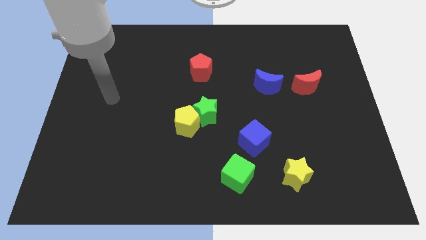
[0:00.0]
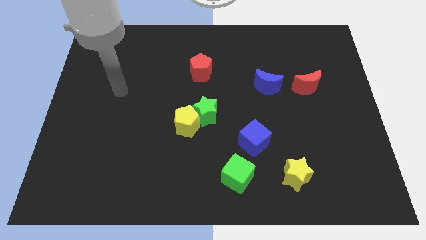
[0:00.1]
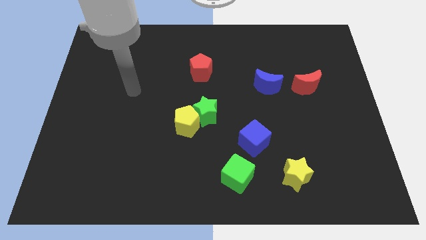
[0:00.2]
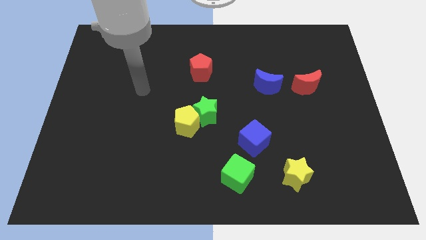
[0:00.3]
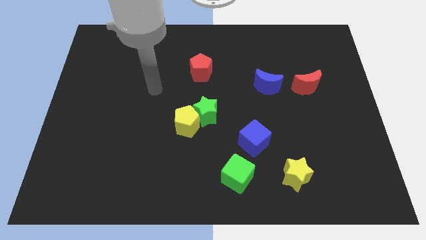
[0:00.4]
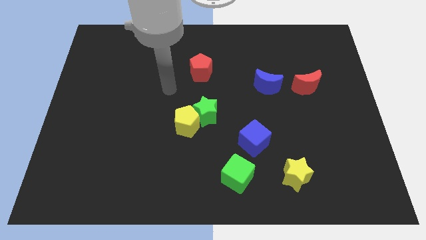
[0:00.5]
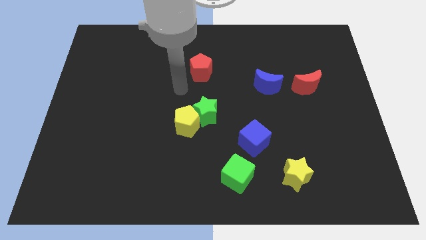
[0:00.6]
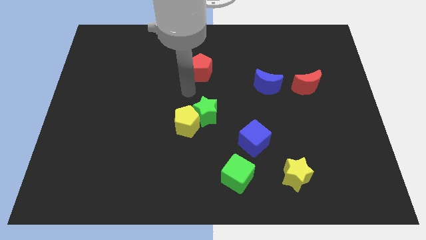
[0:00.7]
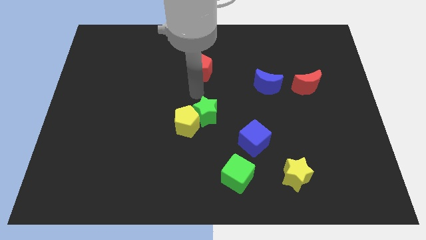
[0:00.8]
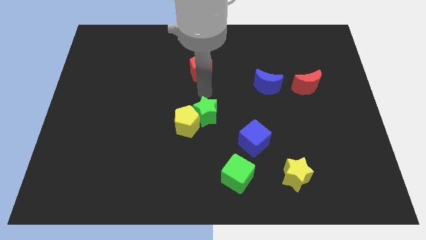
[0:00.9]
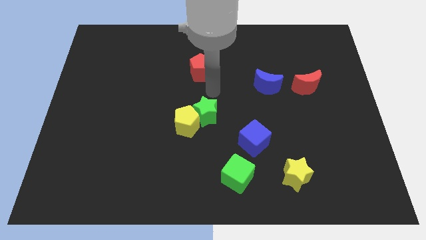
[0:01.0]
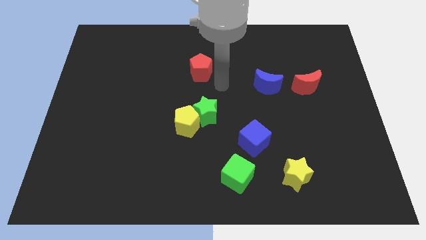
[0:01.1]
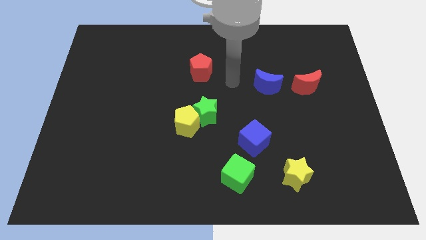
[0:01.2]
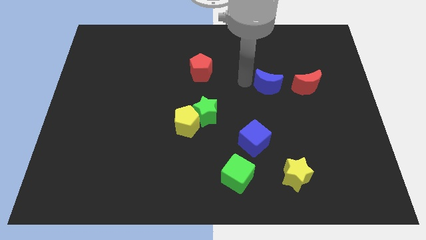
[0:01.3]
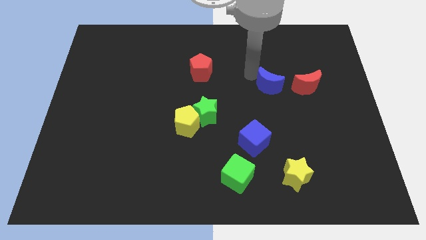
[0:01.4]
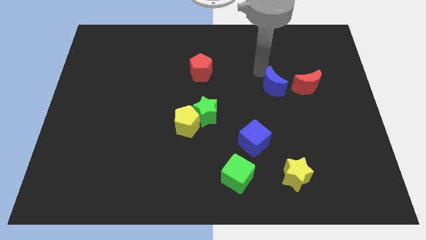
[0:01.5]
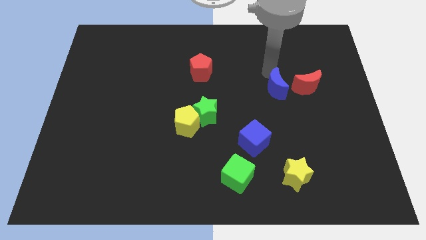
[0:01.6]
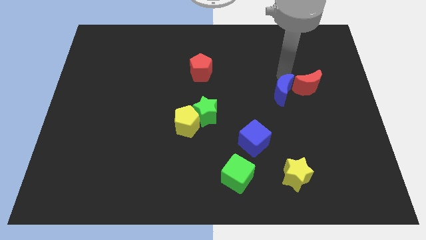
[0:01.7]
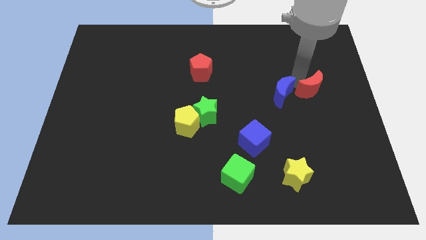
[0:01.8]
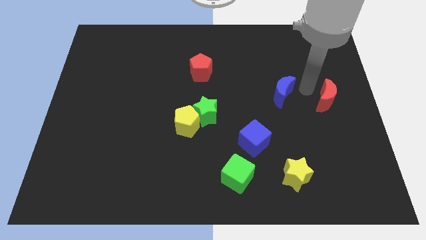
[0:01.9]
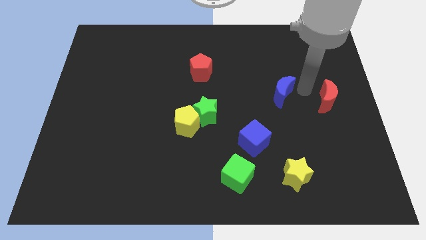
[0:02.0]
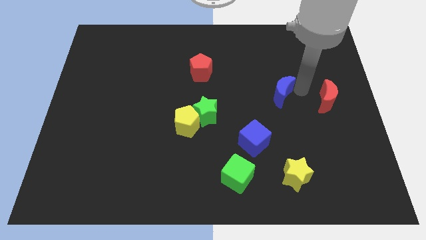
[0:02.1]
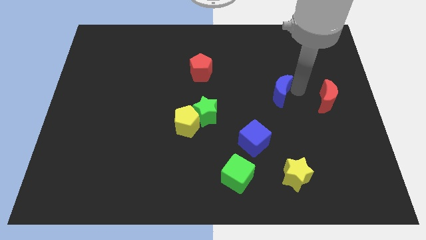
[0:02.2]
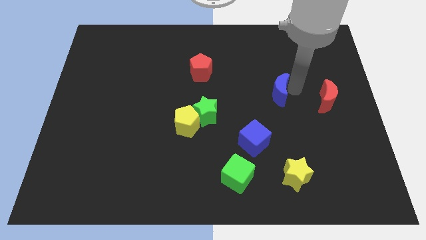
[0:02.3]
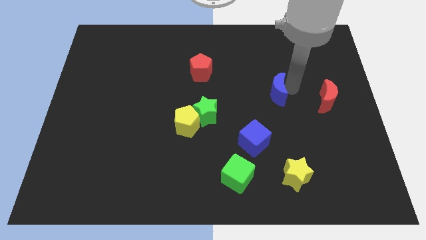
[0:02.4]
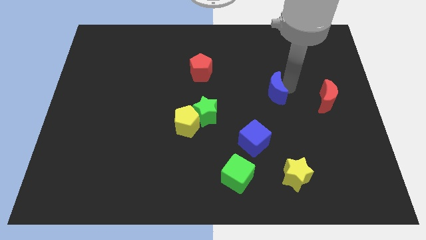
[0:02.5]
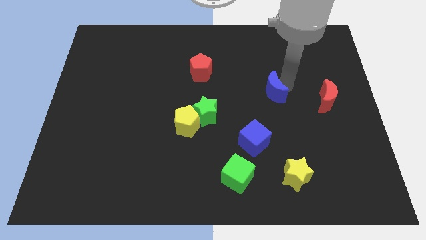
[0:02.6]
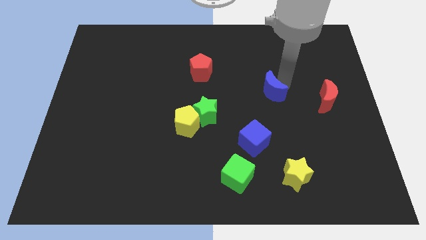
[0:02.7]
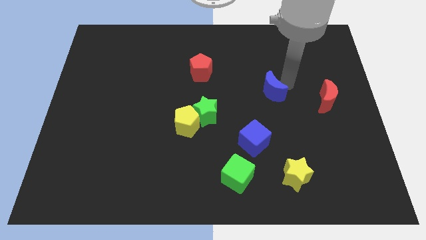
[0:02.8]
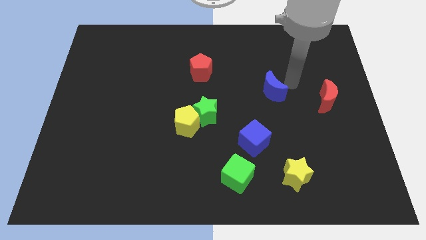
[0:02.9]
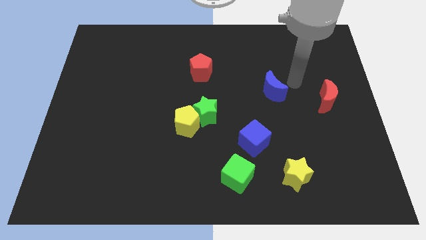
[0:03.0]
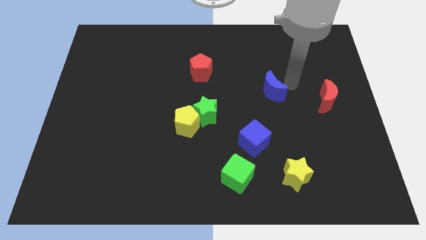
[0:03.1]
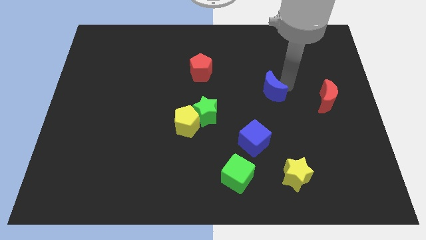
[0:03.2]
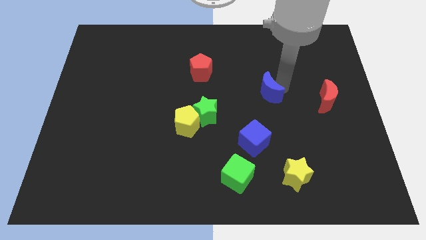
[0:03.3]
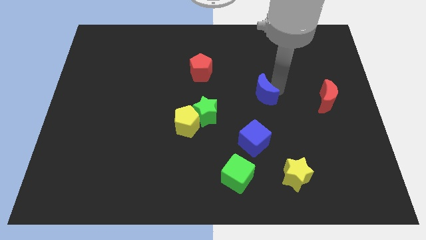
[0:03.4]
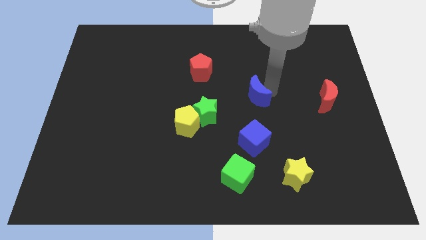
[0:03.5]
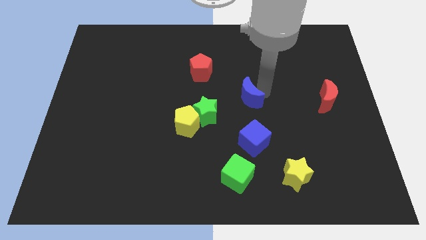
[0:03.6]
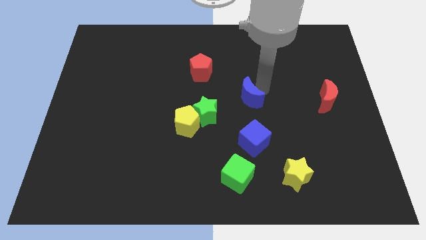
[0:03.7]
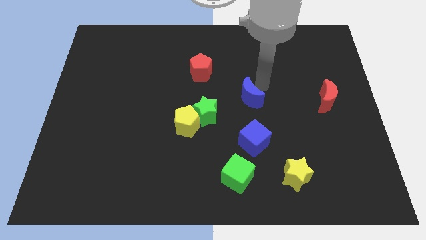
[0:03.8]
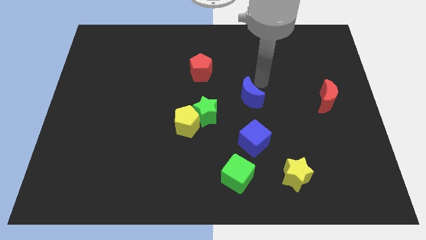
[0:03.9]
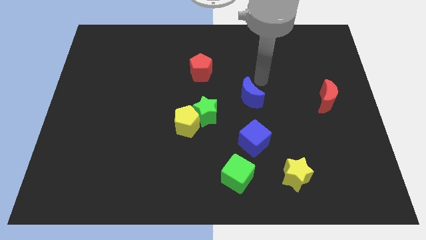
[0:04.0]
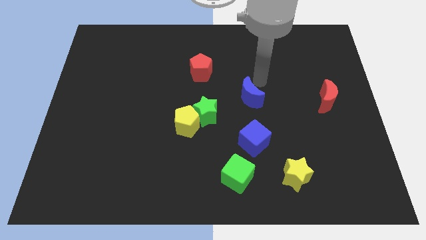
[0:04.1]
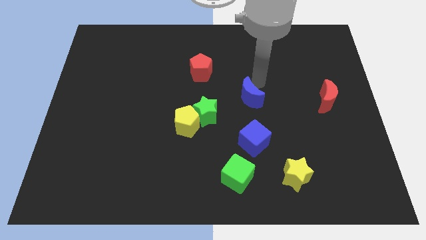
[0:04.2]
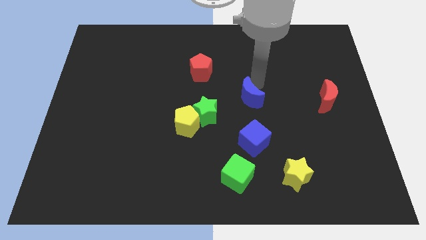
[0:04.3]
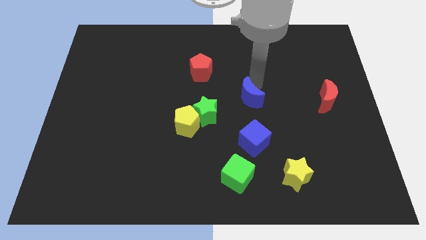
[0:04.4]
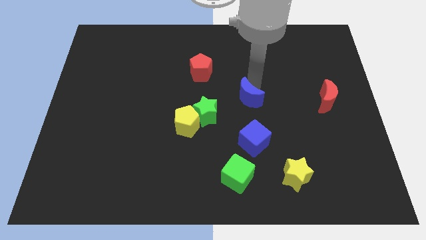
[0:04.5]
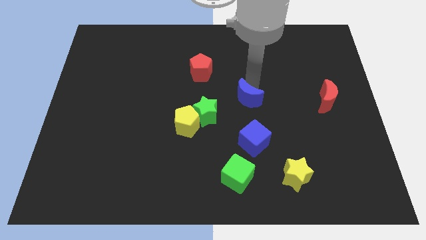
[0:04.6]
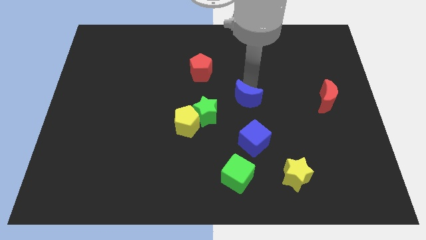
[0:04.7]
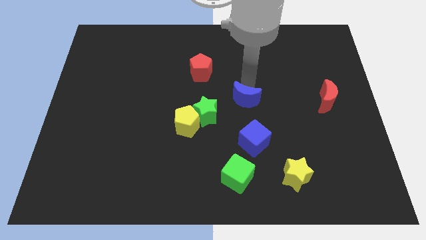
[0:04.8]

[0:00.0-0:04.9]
push the blue moon diagonally downwards and left a bit

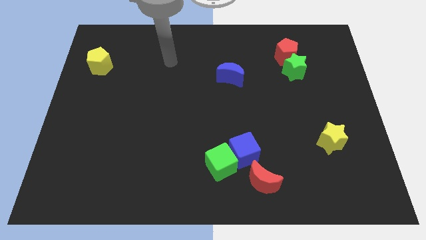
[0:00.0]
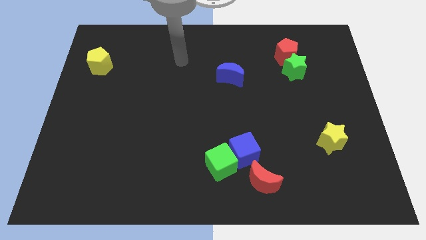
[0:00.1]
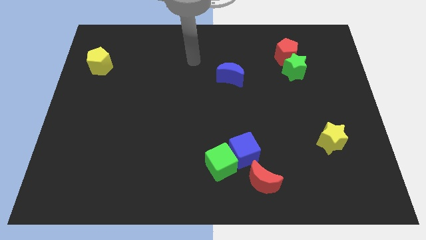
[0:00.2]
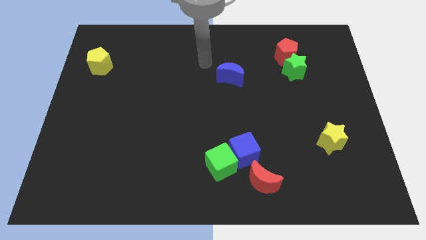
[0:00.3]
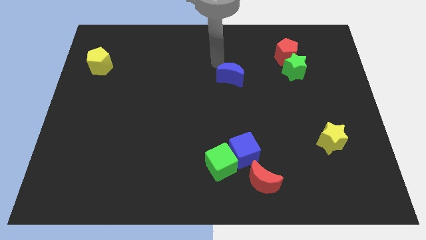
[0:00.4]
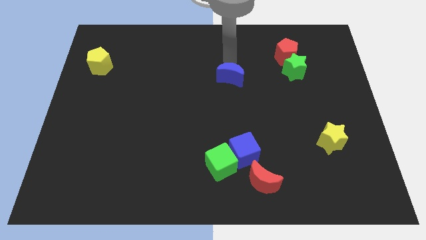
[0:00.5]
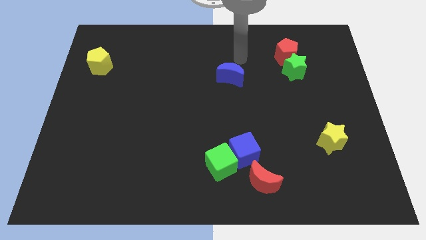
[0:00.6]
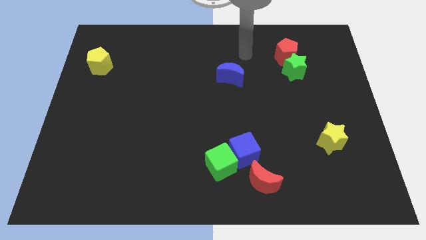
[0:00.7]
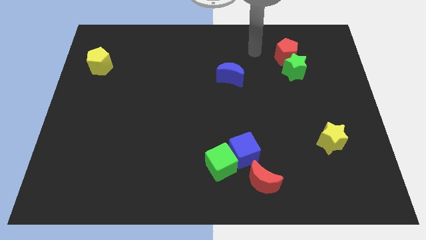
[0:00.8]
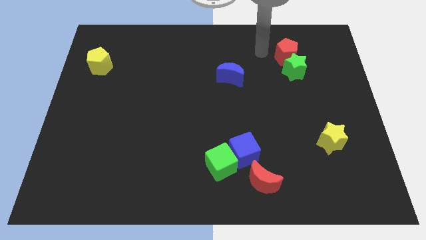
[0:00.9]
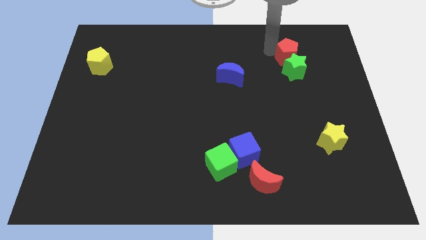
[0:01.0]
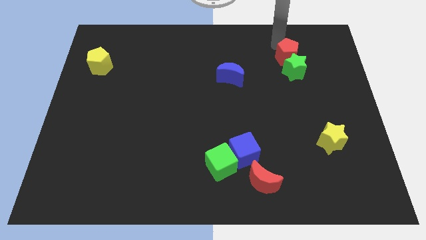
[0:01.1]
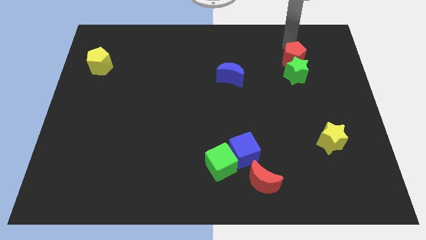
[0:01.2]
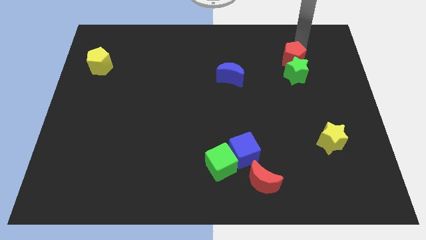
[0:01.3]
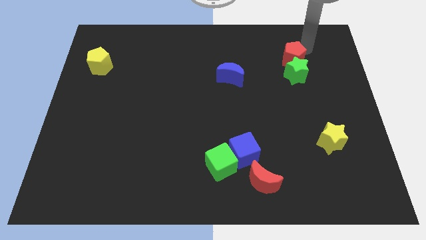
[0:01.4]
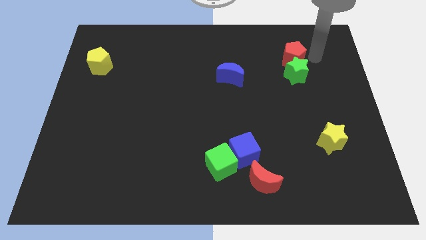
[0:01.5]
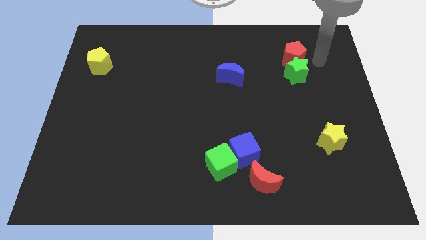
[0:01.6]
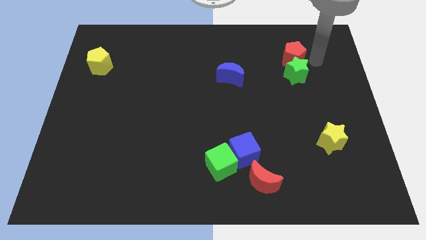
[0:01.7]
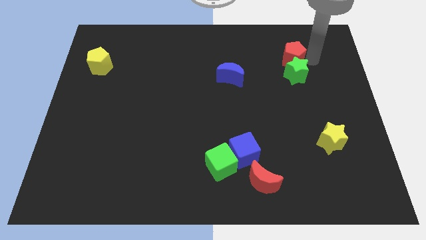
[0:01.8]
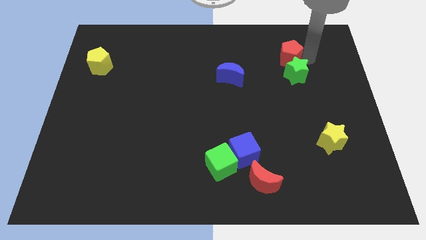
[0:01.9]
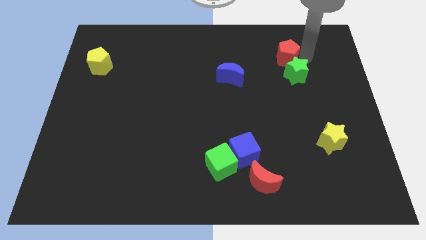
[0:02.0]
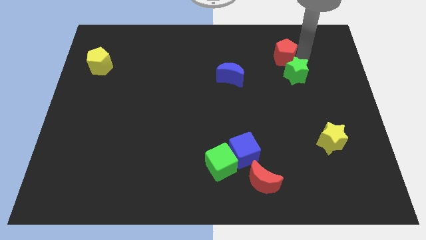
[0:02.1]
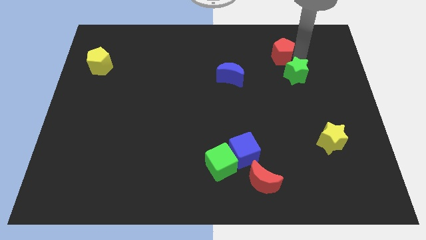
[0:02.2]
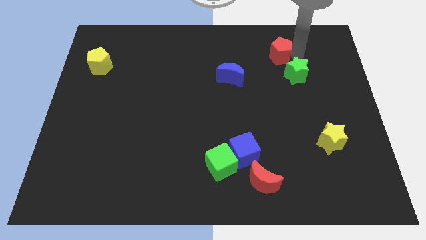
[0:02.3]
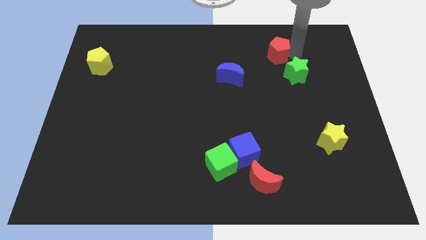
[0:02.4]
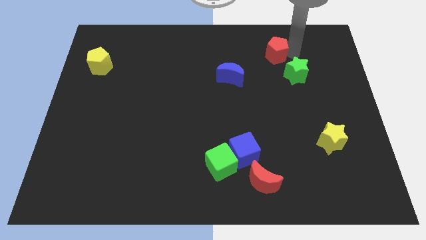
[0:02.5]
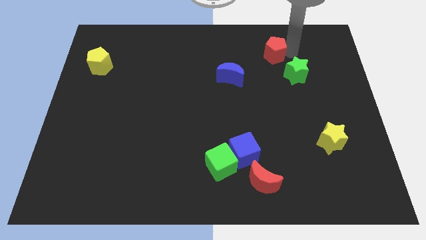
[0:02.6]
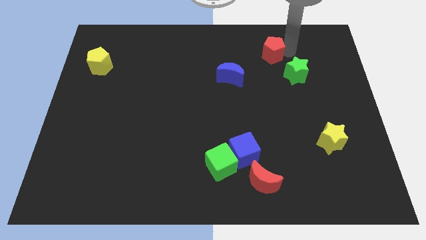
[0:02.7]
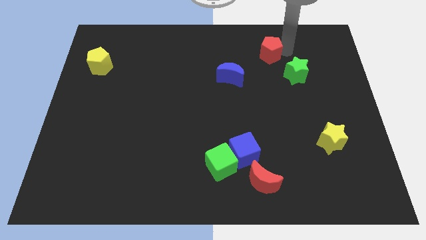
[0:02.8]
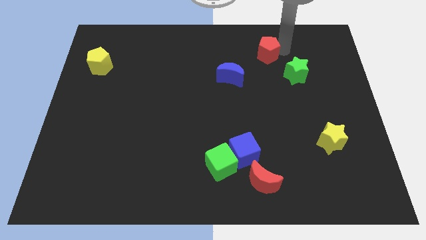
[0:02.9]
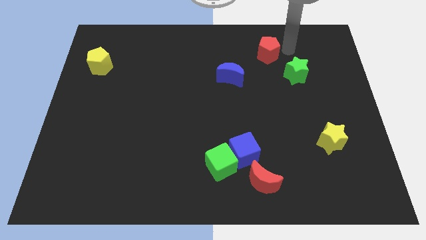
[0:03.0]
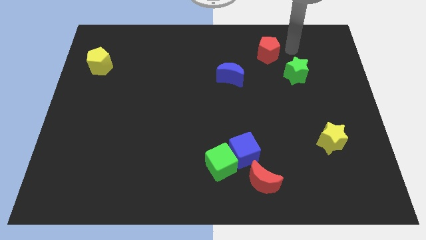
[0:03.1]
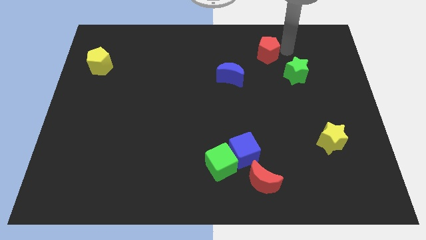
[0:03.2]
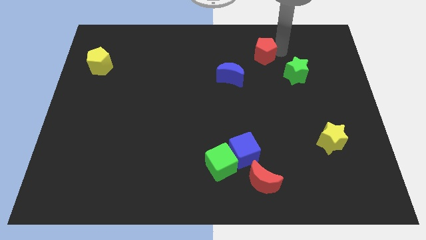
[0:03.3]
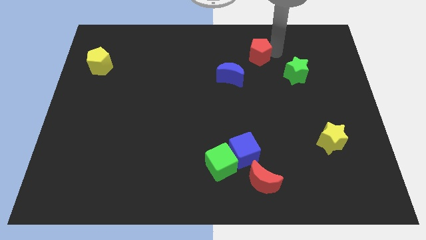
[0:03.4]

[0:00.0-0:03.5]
slightly push the red pentagon to the left
